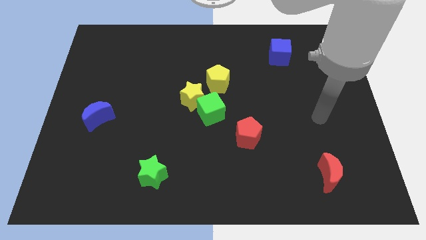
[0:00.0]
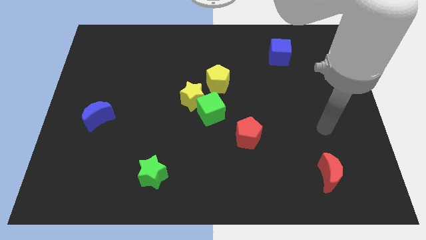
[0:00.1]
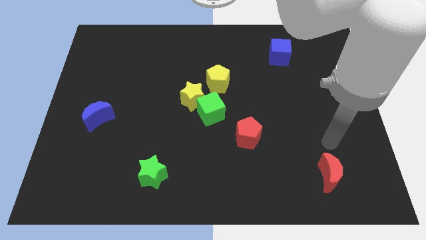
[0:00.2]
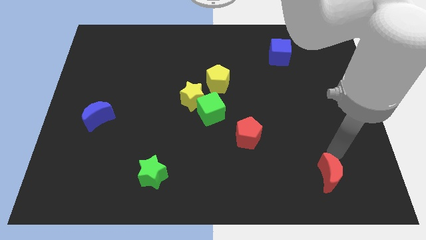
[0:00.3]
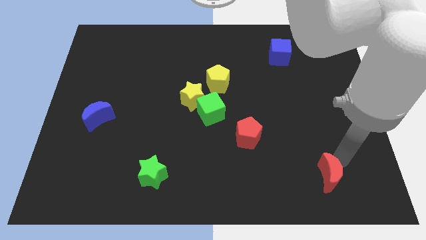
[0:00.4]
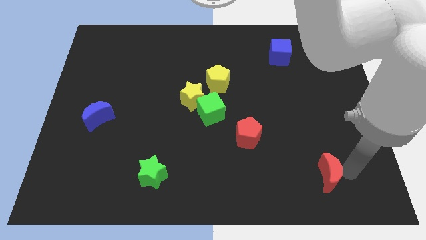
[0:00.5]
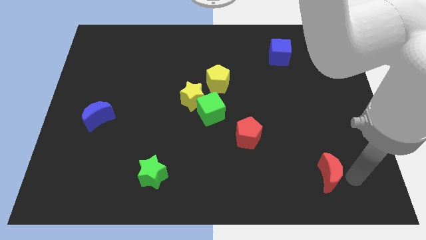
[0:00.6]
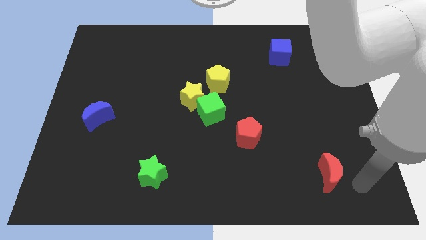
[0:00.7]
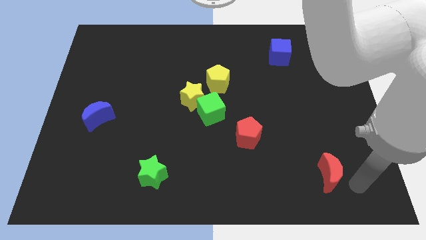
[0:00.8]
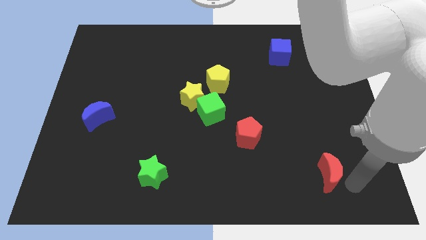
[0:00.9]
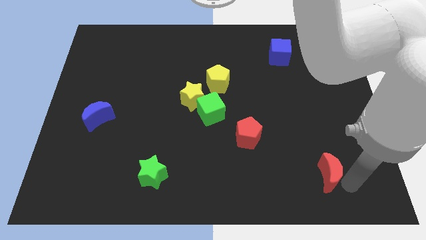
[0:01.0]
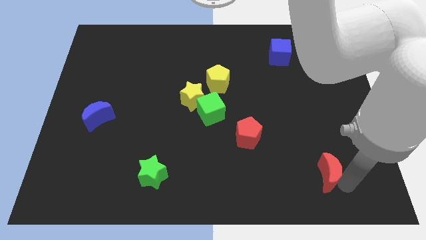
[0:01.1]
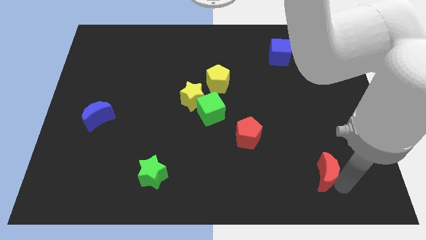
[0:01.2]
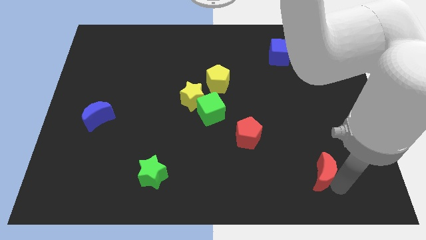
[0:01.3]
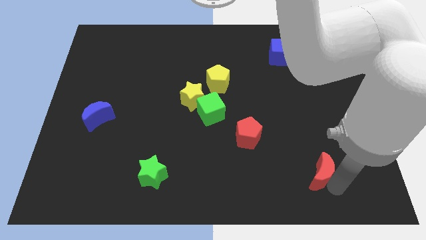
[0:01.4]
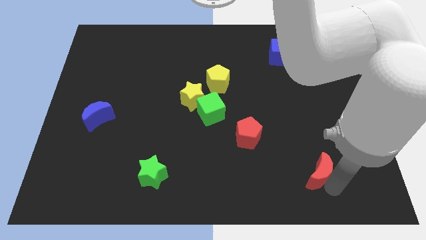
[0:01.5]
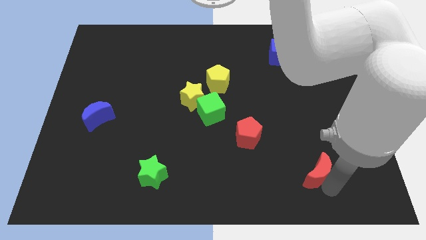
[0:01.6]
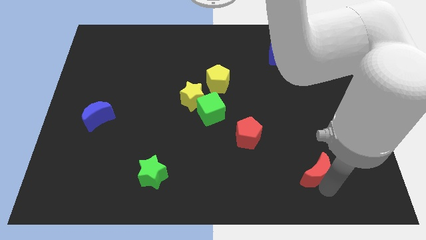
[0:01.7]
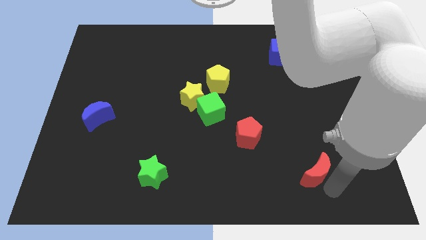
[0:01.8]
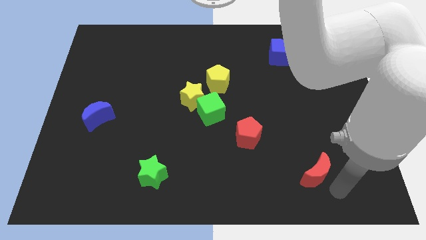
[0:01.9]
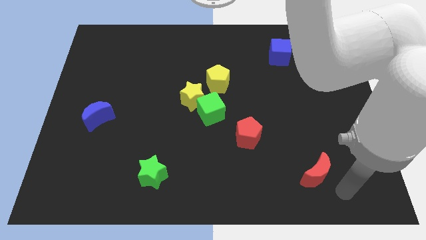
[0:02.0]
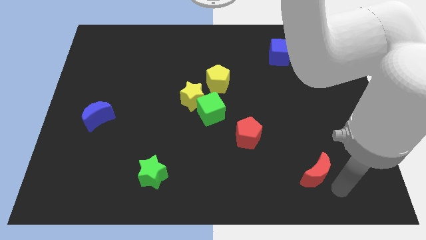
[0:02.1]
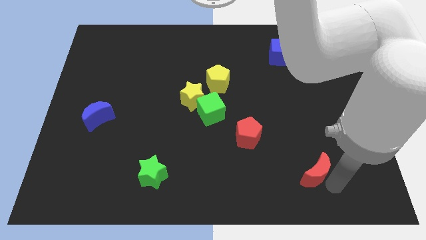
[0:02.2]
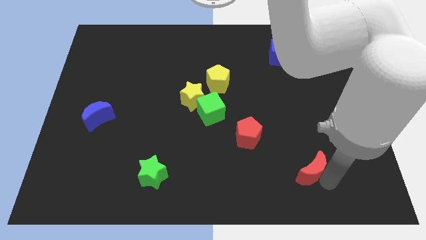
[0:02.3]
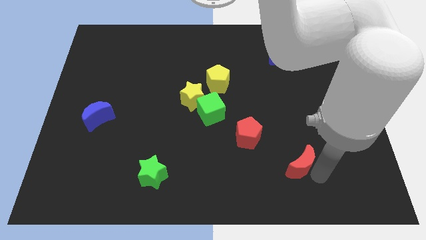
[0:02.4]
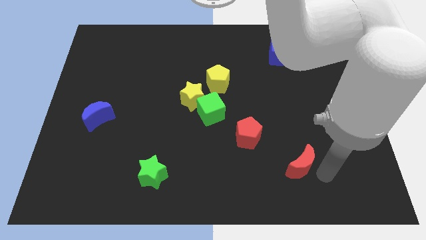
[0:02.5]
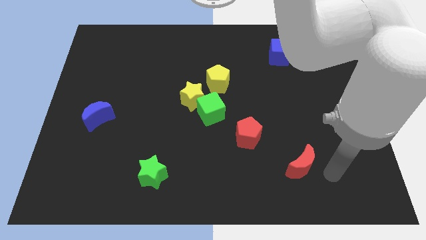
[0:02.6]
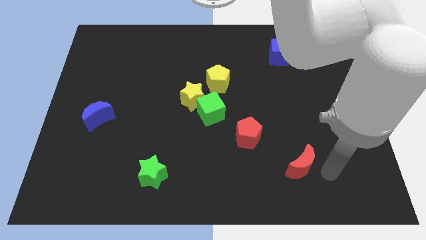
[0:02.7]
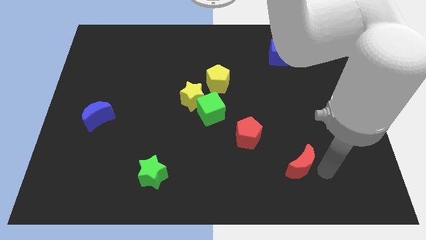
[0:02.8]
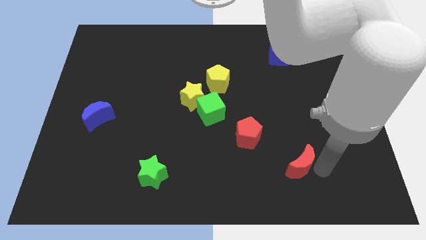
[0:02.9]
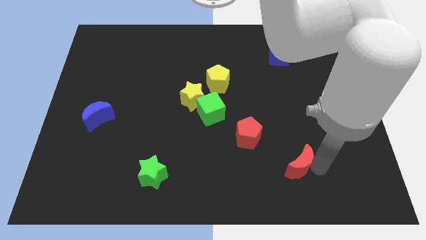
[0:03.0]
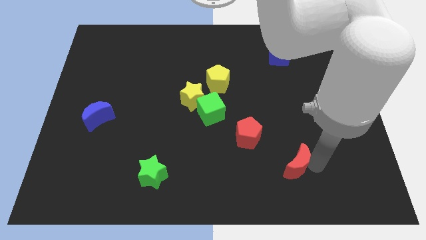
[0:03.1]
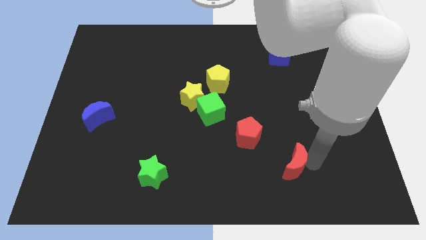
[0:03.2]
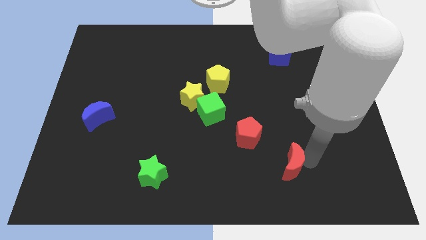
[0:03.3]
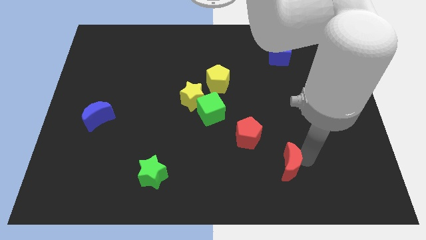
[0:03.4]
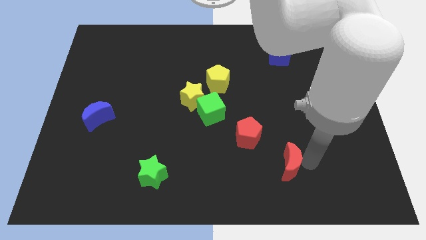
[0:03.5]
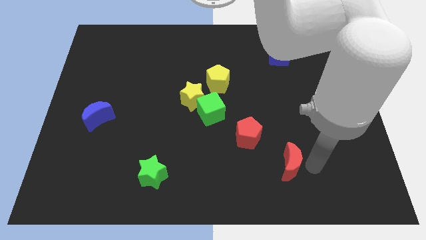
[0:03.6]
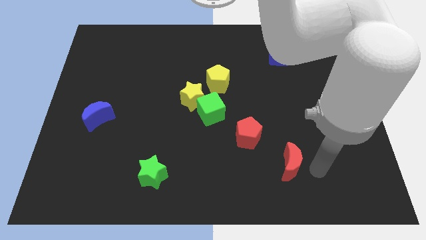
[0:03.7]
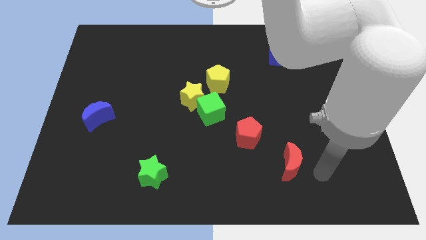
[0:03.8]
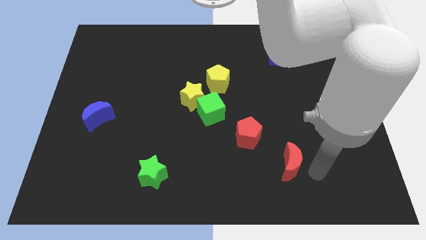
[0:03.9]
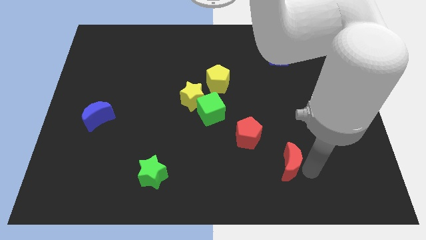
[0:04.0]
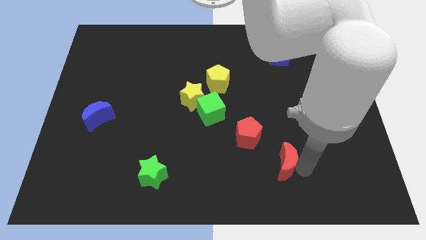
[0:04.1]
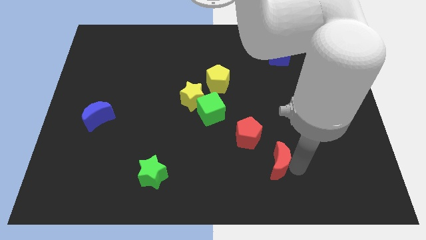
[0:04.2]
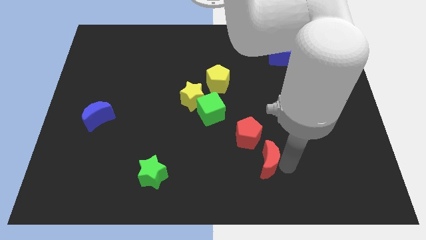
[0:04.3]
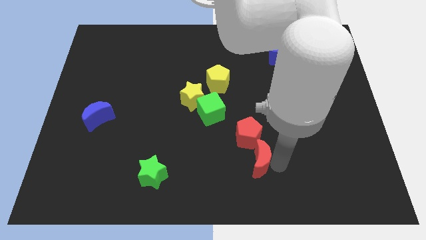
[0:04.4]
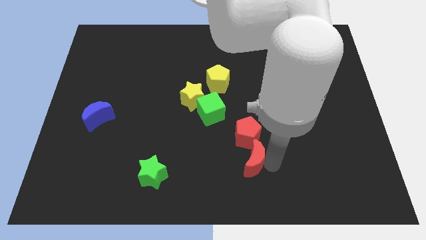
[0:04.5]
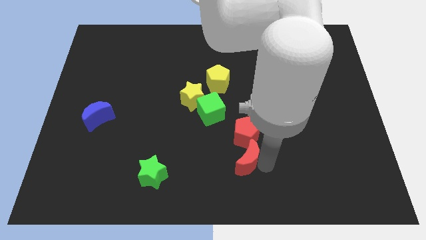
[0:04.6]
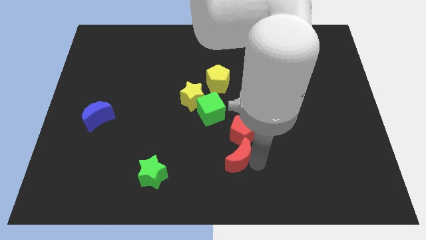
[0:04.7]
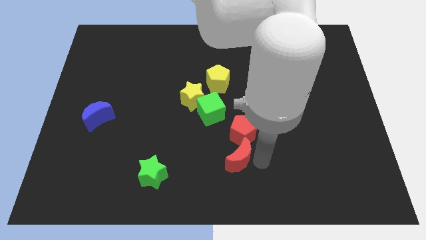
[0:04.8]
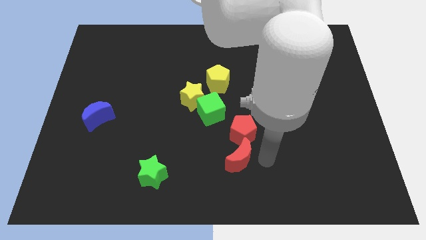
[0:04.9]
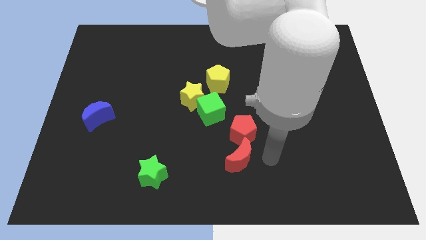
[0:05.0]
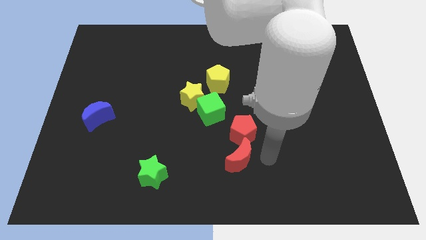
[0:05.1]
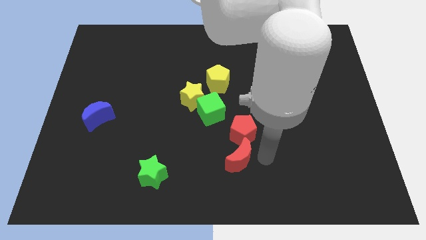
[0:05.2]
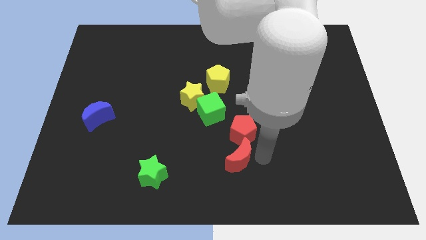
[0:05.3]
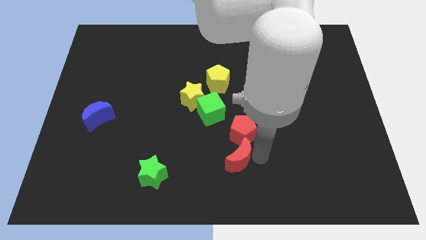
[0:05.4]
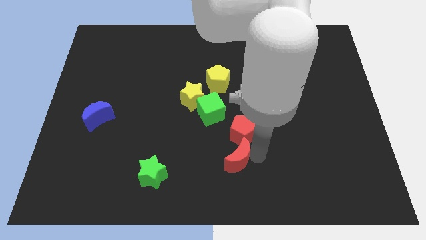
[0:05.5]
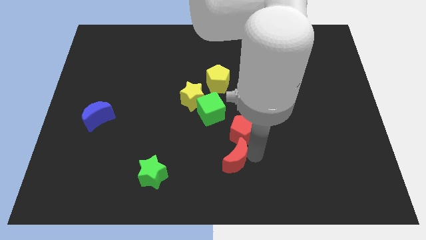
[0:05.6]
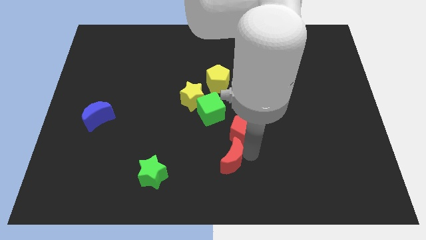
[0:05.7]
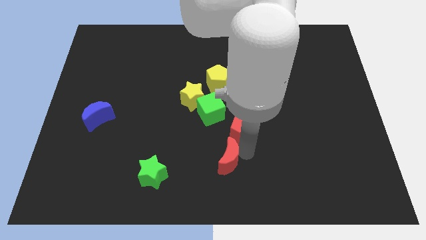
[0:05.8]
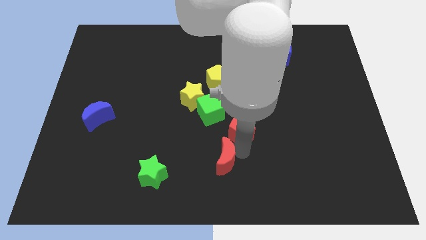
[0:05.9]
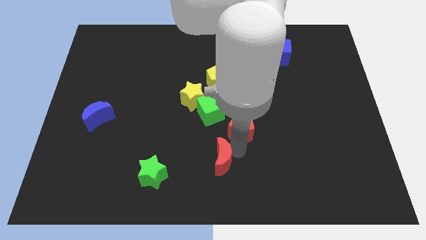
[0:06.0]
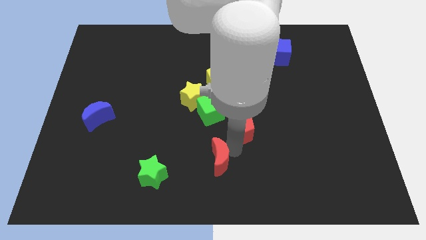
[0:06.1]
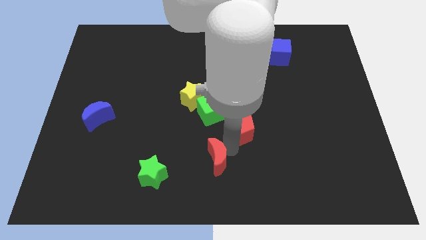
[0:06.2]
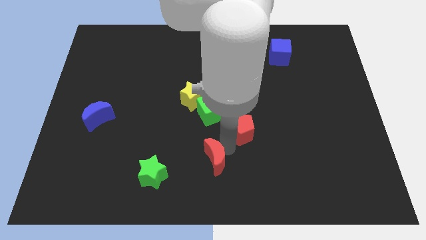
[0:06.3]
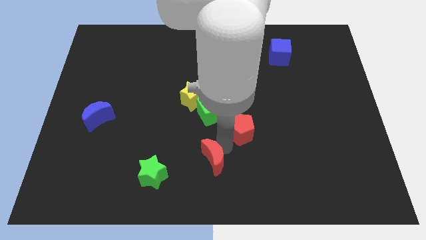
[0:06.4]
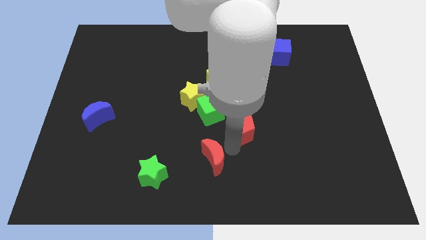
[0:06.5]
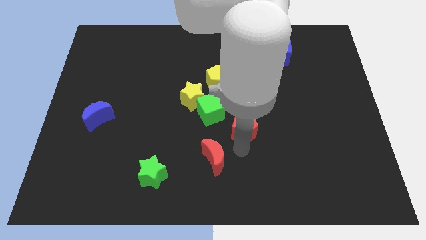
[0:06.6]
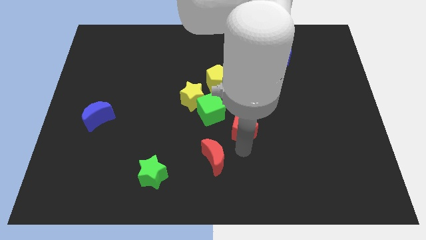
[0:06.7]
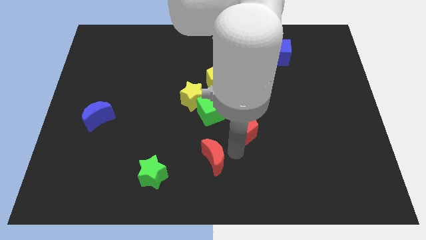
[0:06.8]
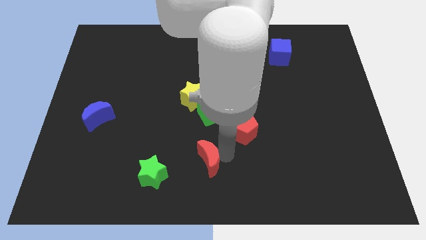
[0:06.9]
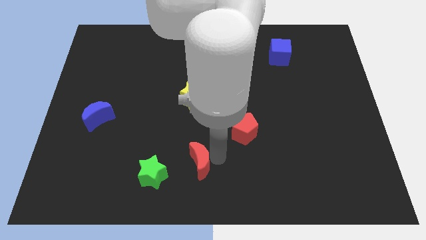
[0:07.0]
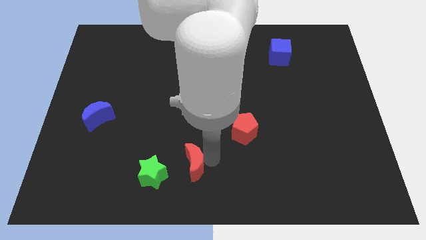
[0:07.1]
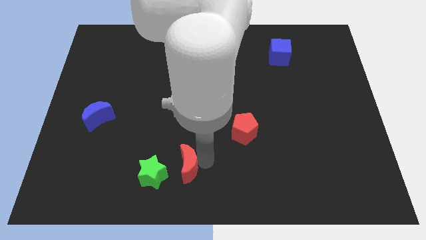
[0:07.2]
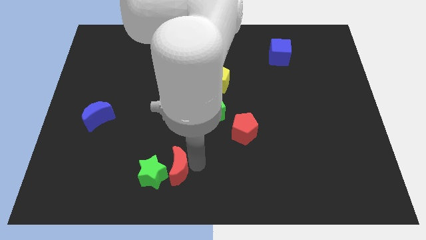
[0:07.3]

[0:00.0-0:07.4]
push the red moon to the green star
